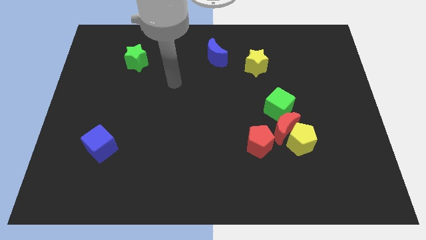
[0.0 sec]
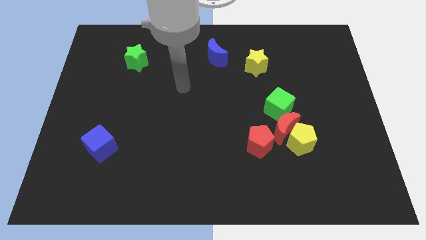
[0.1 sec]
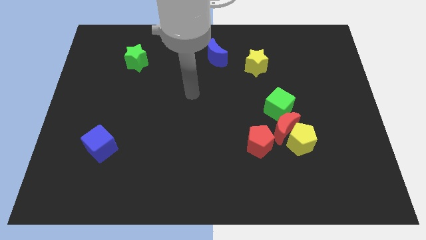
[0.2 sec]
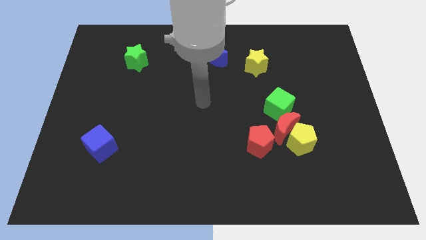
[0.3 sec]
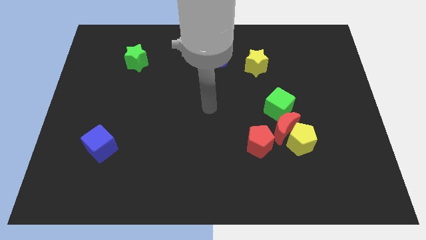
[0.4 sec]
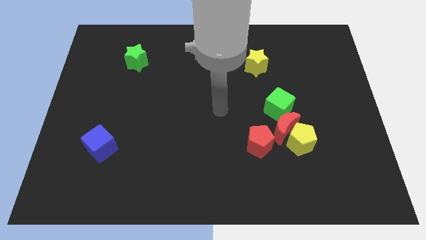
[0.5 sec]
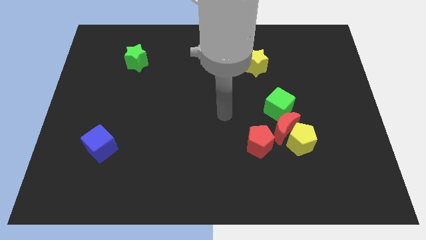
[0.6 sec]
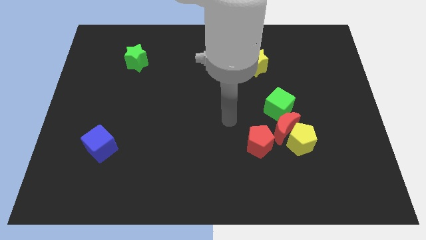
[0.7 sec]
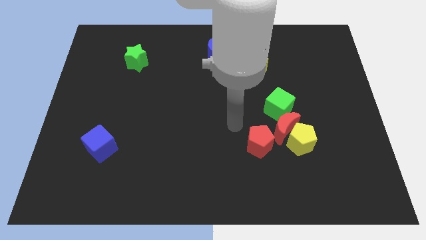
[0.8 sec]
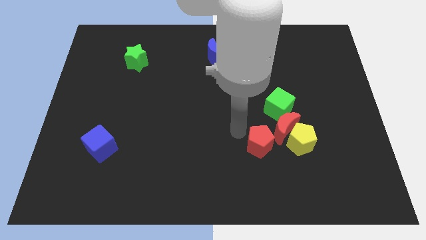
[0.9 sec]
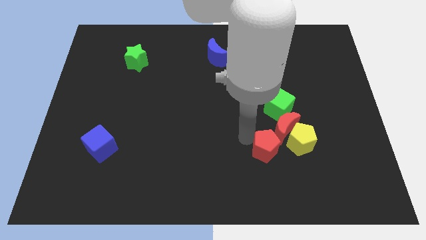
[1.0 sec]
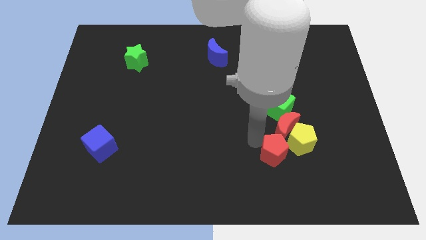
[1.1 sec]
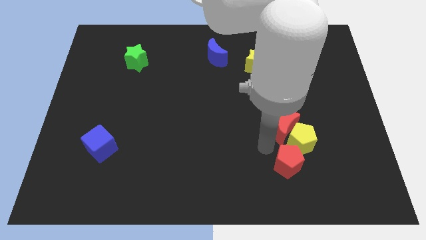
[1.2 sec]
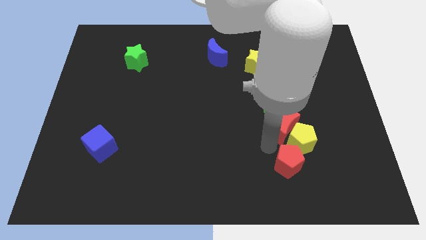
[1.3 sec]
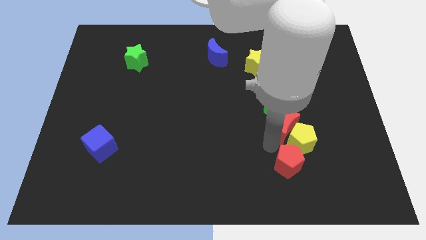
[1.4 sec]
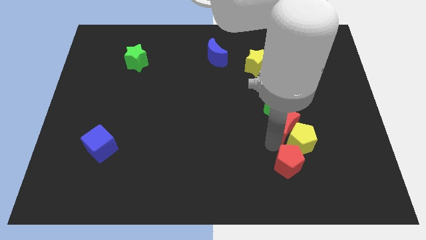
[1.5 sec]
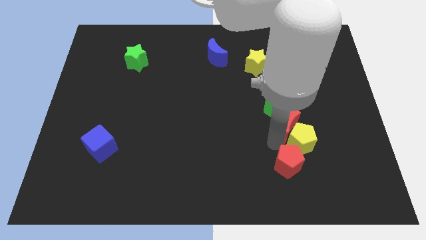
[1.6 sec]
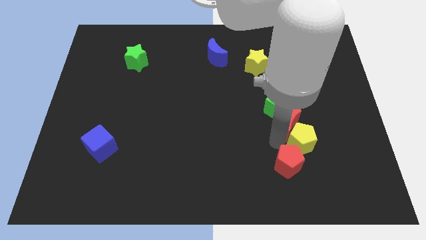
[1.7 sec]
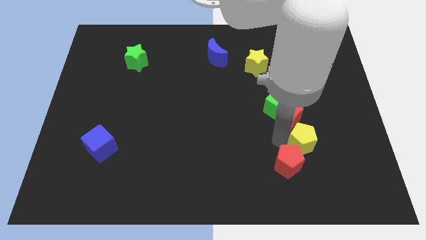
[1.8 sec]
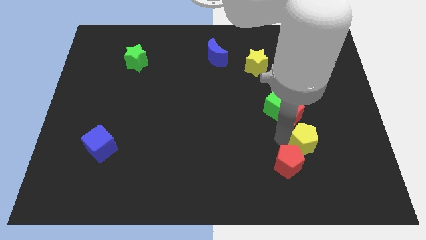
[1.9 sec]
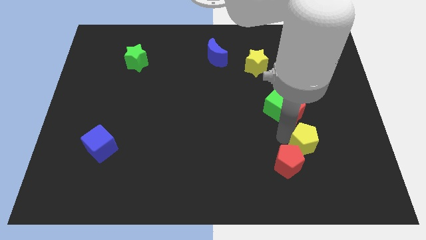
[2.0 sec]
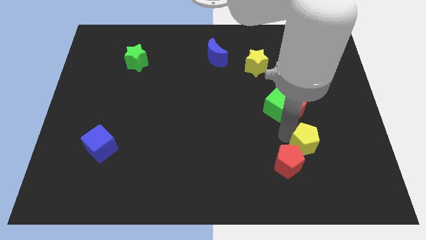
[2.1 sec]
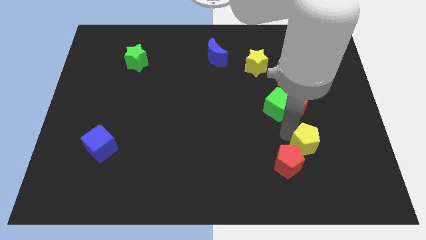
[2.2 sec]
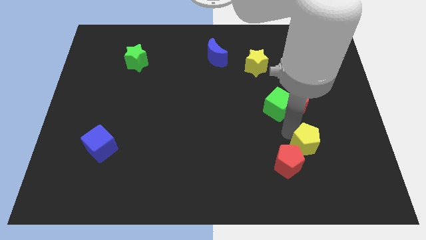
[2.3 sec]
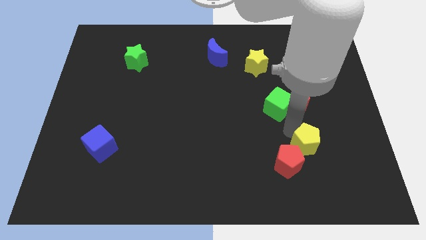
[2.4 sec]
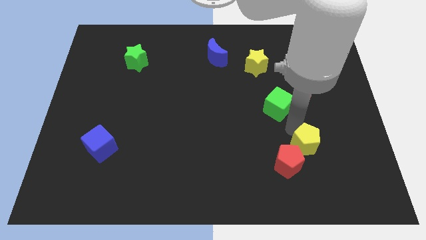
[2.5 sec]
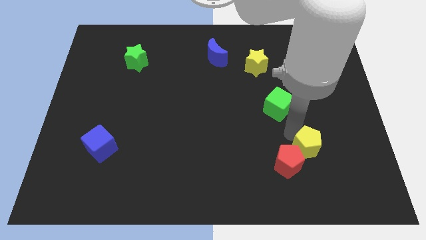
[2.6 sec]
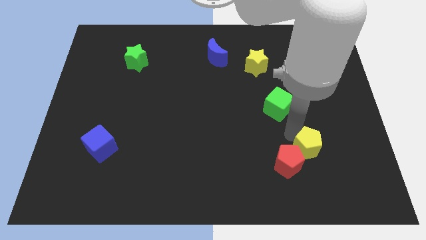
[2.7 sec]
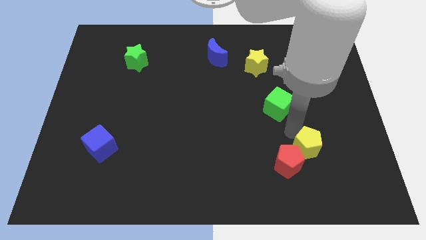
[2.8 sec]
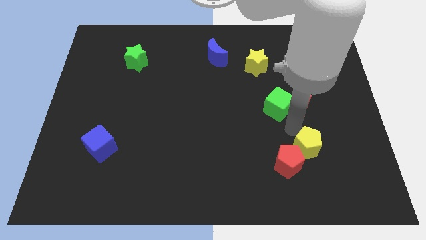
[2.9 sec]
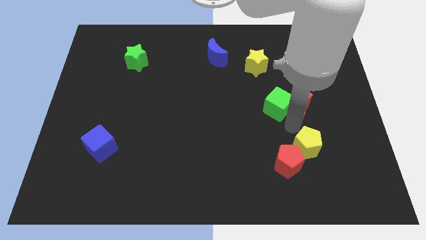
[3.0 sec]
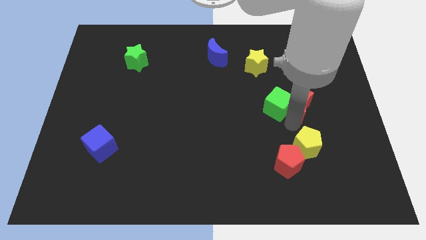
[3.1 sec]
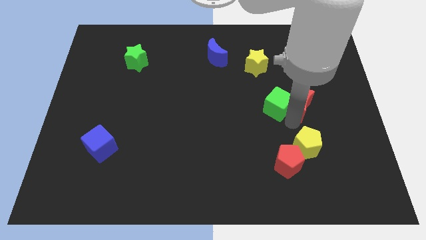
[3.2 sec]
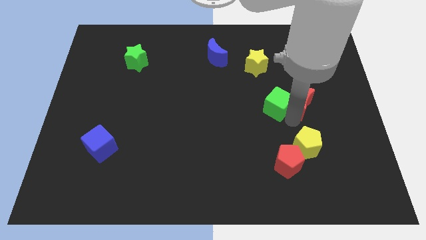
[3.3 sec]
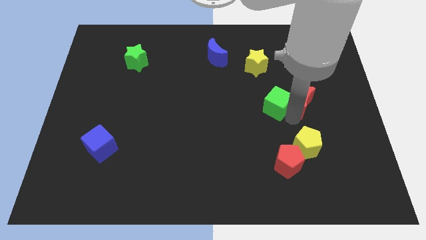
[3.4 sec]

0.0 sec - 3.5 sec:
pull the red moon apart from the yellow pentagon, green cube, and red pentagon

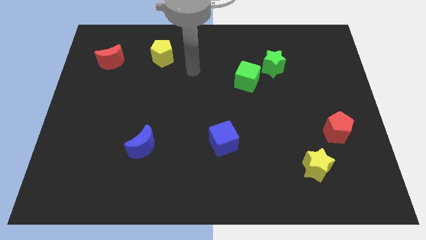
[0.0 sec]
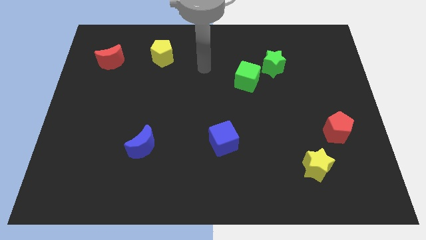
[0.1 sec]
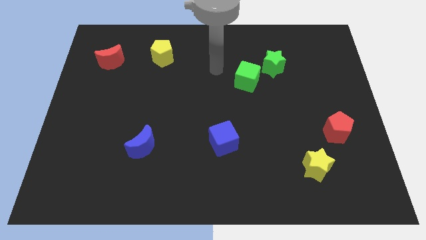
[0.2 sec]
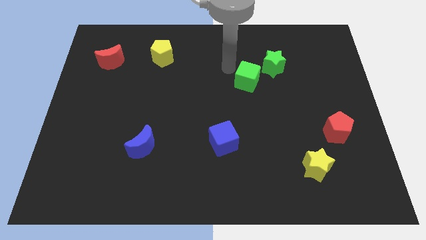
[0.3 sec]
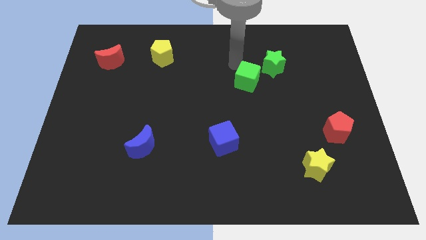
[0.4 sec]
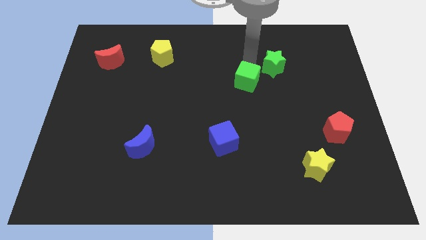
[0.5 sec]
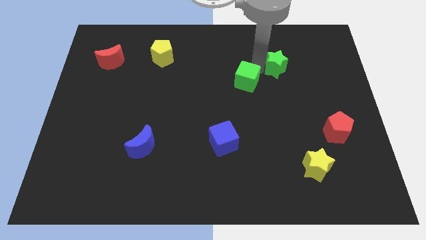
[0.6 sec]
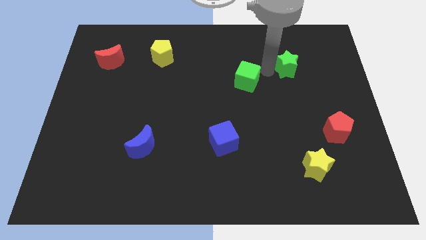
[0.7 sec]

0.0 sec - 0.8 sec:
move the green cube away from the green star

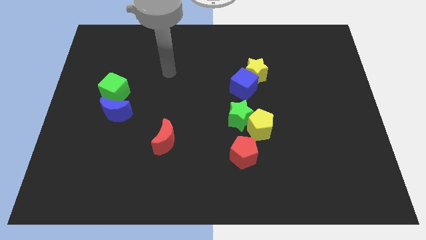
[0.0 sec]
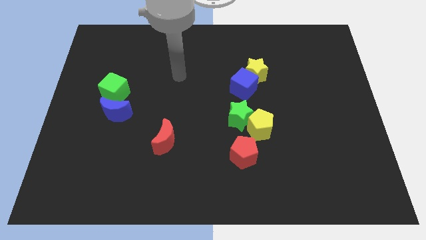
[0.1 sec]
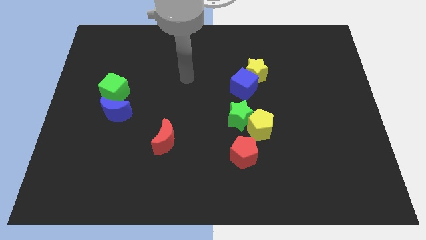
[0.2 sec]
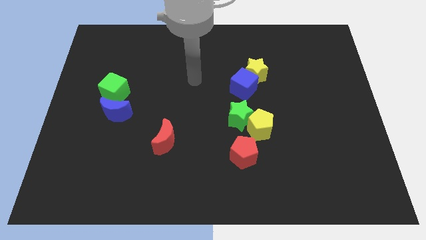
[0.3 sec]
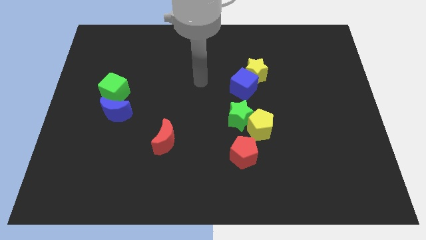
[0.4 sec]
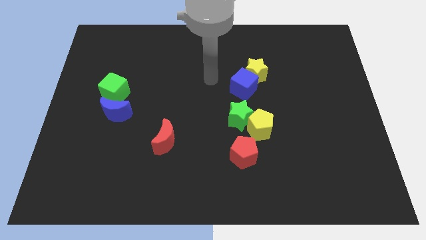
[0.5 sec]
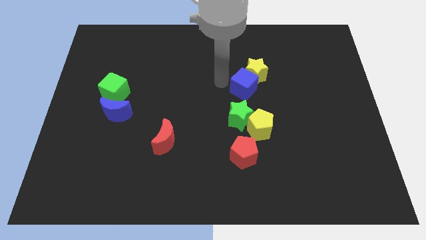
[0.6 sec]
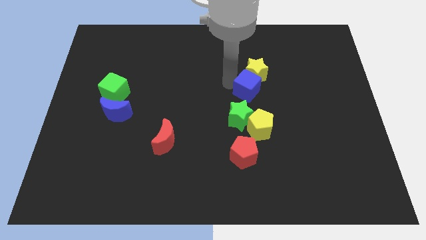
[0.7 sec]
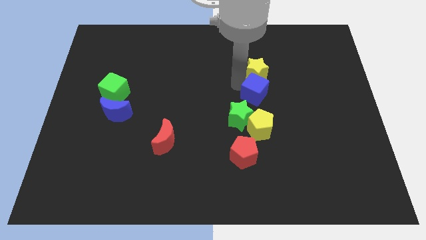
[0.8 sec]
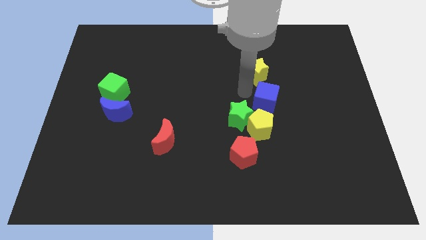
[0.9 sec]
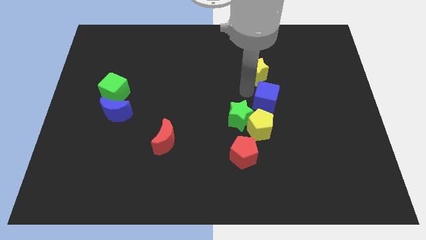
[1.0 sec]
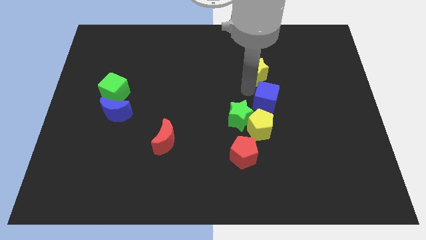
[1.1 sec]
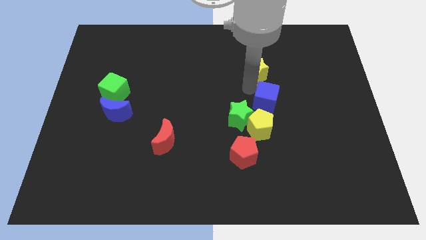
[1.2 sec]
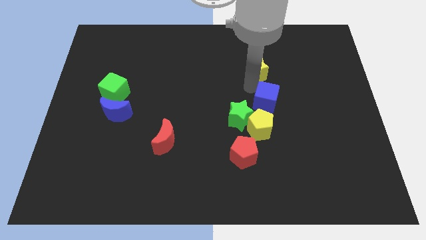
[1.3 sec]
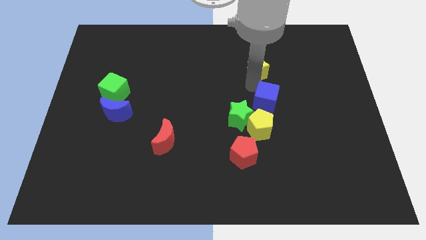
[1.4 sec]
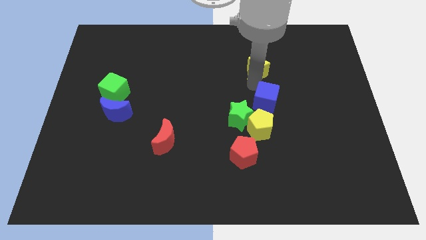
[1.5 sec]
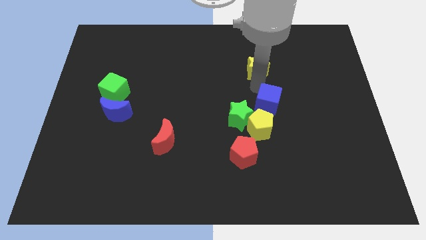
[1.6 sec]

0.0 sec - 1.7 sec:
move the yellow star away from the blue cube

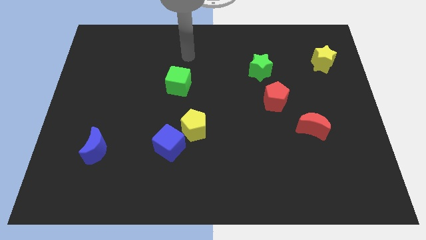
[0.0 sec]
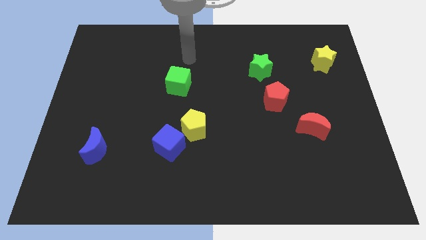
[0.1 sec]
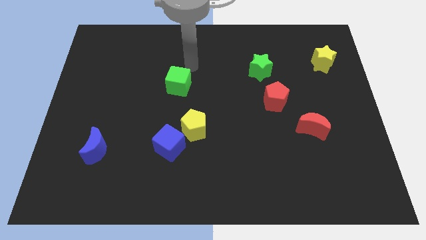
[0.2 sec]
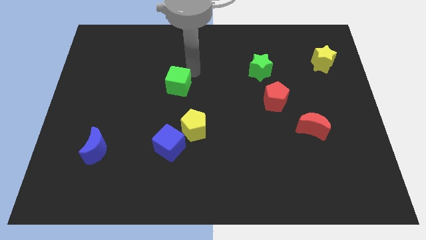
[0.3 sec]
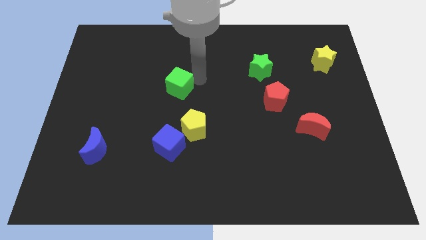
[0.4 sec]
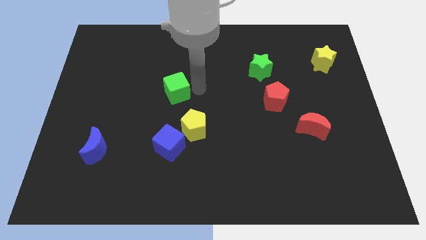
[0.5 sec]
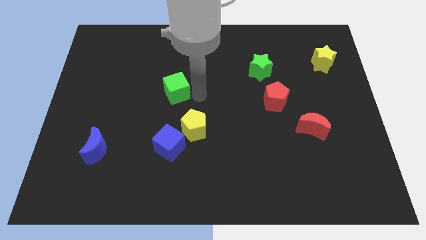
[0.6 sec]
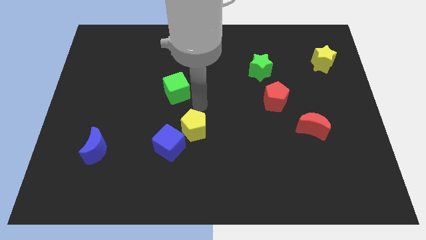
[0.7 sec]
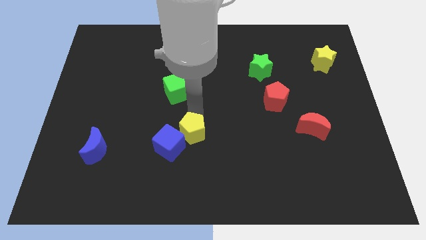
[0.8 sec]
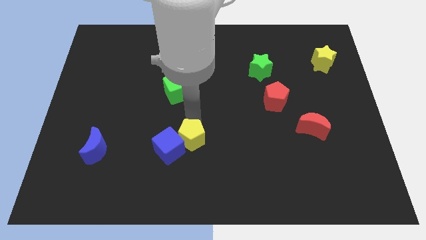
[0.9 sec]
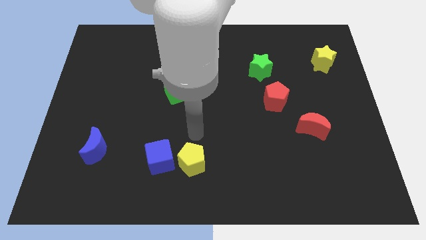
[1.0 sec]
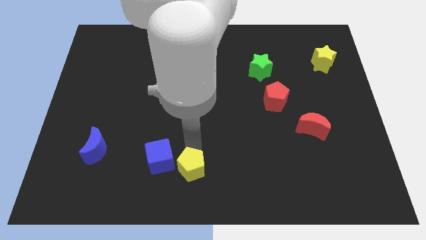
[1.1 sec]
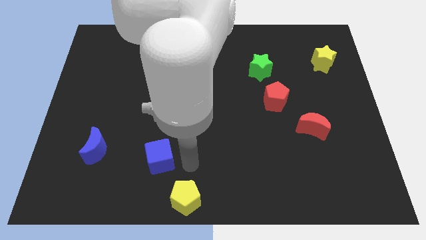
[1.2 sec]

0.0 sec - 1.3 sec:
separate the blue cube from the yellow pentagon

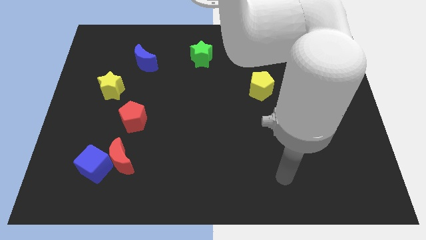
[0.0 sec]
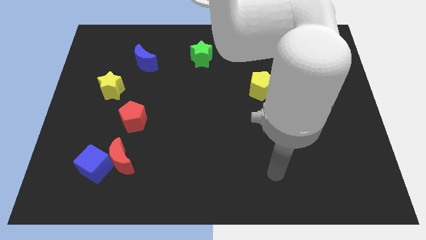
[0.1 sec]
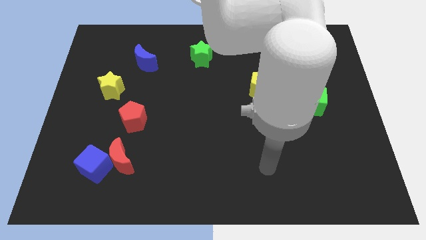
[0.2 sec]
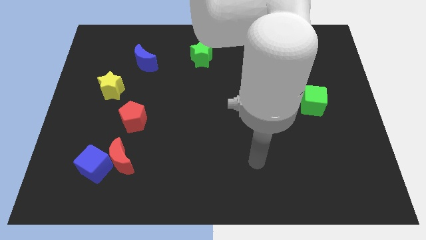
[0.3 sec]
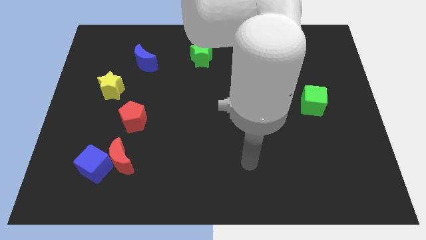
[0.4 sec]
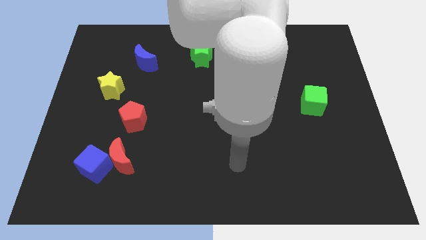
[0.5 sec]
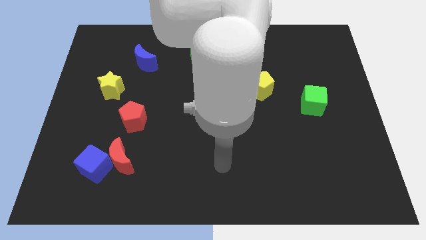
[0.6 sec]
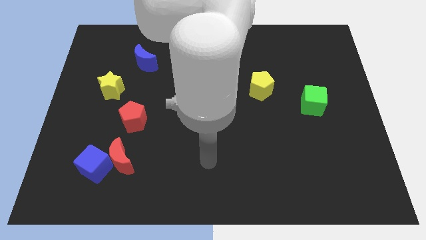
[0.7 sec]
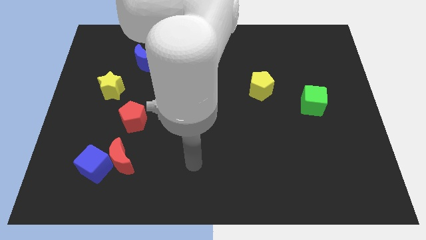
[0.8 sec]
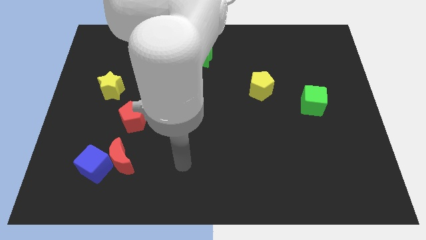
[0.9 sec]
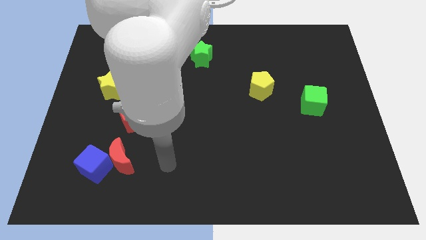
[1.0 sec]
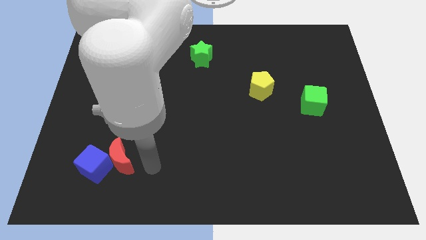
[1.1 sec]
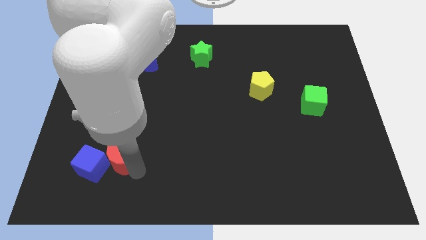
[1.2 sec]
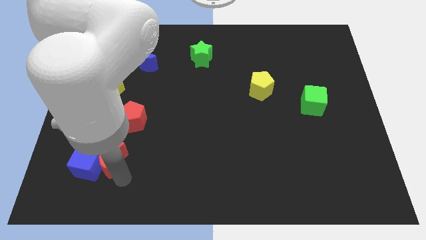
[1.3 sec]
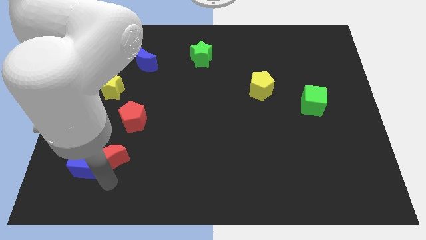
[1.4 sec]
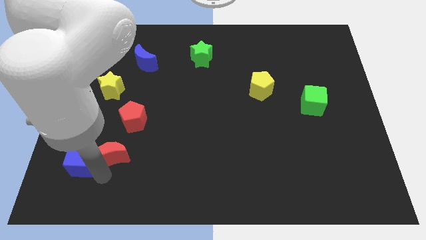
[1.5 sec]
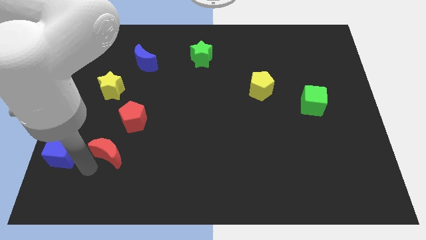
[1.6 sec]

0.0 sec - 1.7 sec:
pull the red moon apart from the blue cube

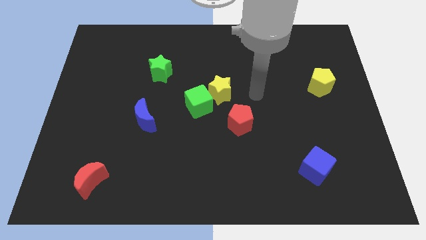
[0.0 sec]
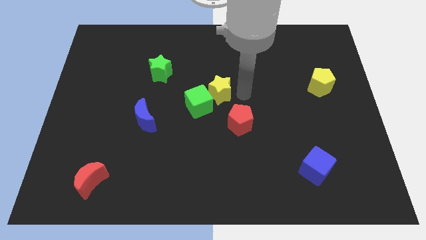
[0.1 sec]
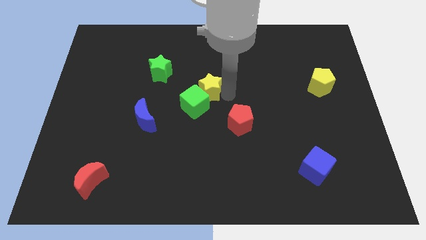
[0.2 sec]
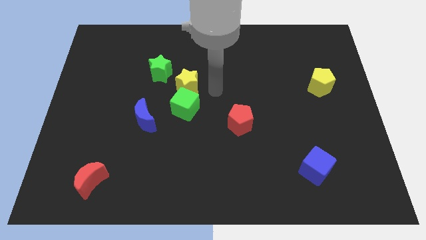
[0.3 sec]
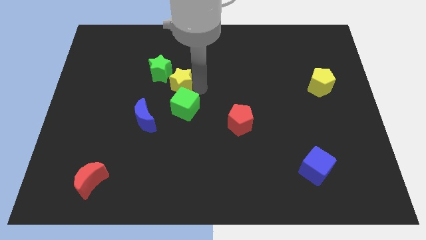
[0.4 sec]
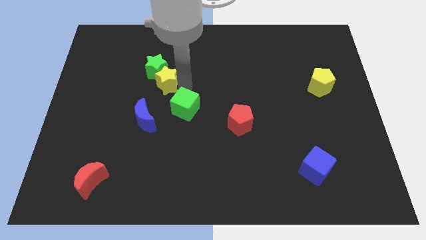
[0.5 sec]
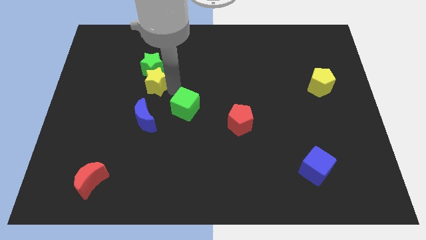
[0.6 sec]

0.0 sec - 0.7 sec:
move the green cube away from the yellow star
